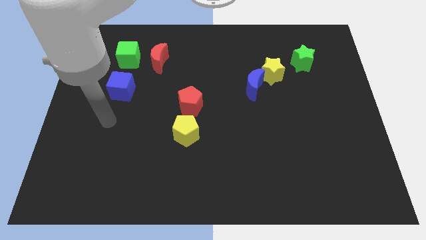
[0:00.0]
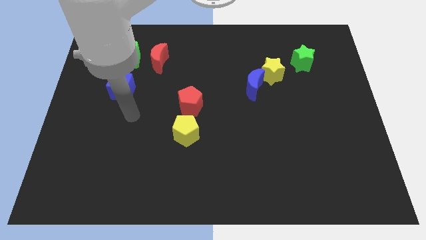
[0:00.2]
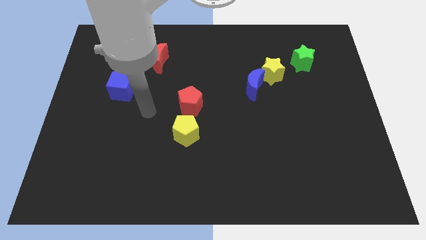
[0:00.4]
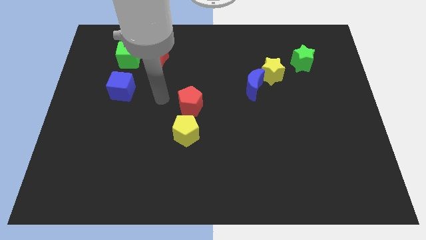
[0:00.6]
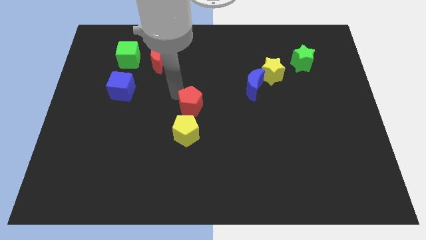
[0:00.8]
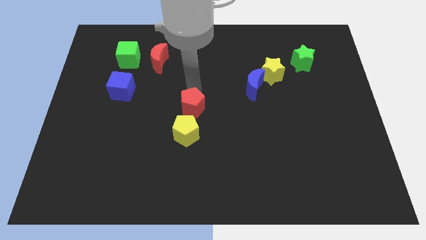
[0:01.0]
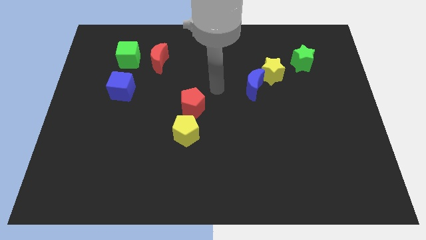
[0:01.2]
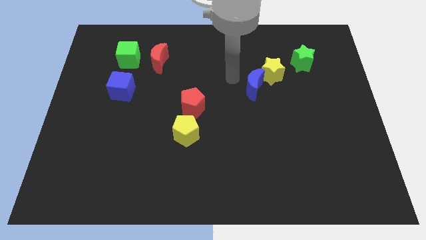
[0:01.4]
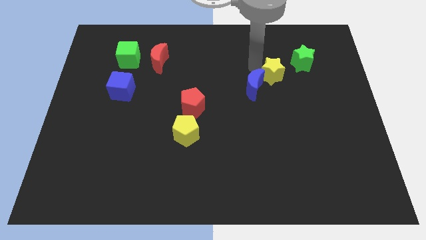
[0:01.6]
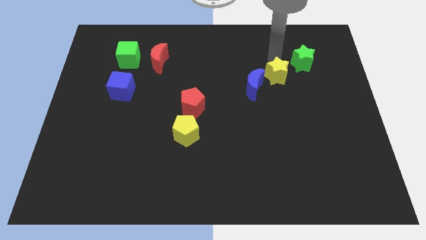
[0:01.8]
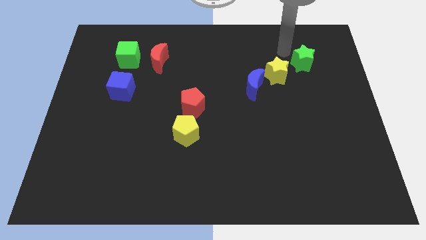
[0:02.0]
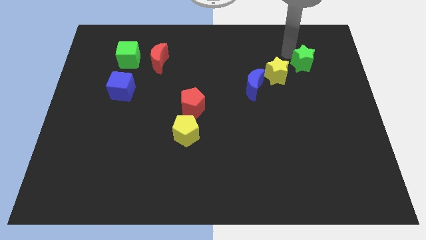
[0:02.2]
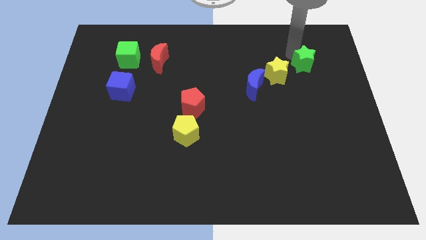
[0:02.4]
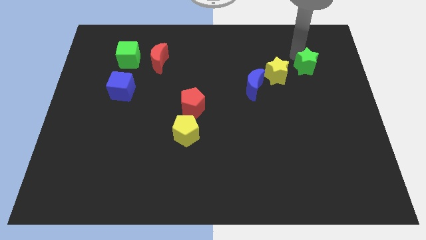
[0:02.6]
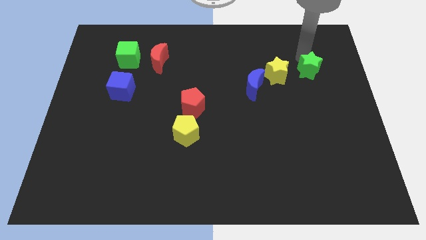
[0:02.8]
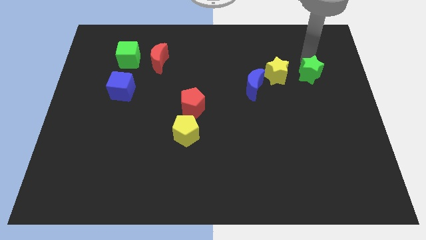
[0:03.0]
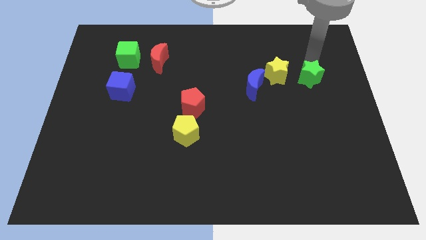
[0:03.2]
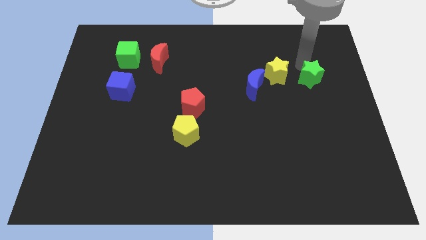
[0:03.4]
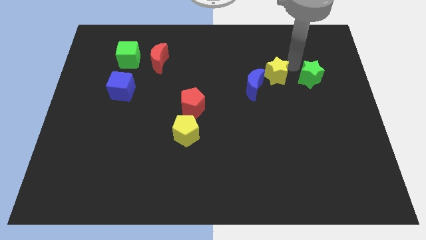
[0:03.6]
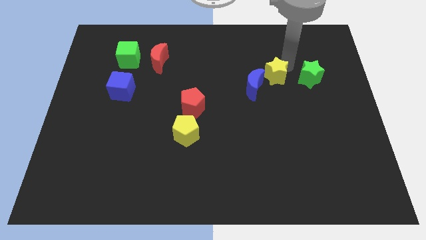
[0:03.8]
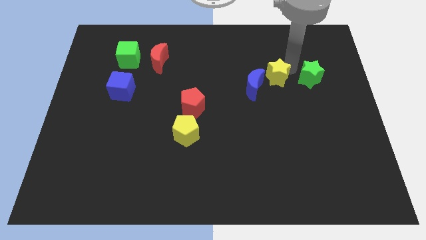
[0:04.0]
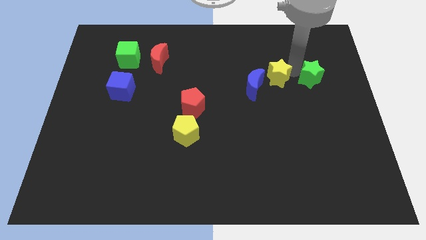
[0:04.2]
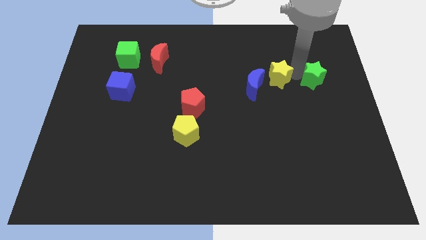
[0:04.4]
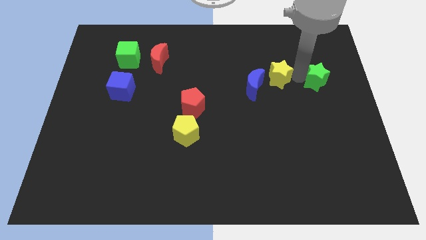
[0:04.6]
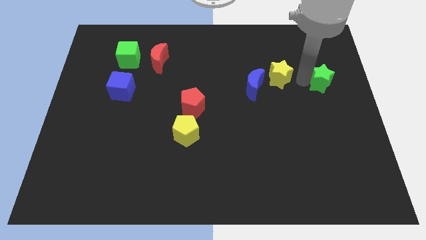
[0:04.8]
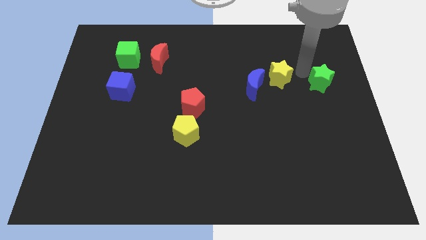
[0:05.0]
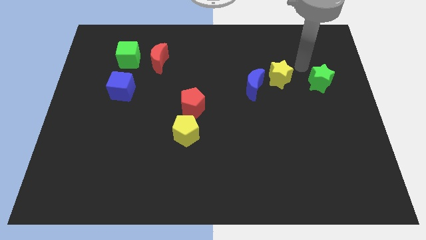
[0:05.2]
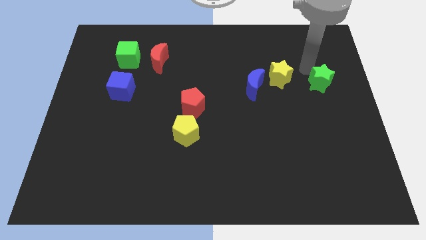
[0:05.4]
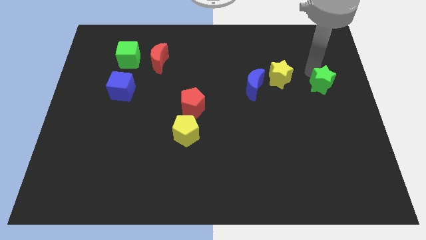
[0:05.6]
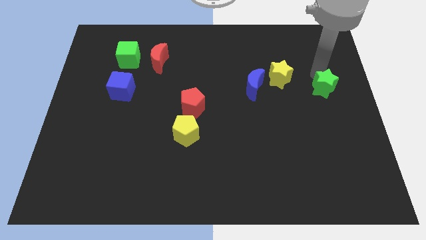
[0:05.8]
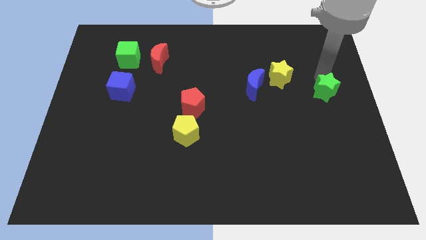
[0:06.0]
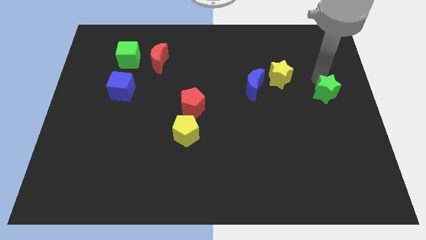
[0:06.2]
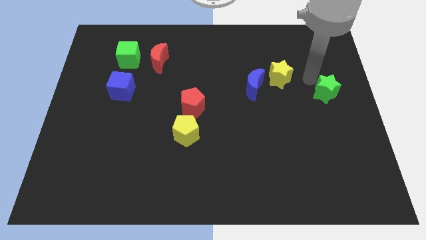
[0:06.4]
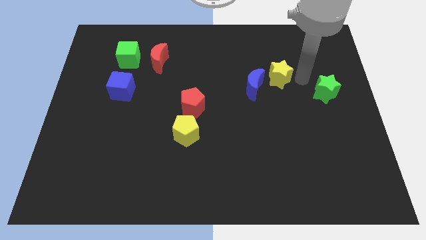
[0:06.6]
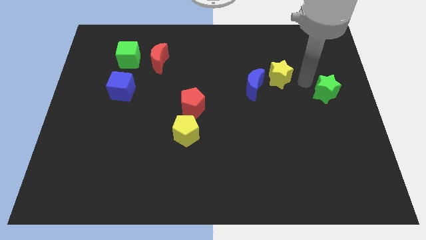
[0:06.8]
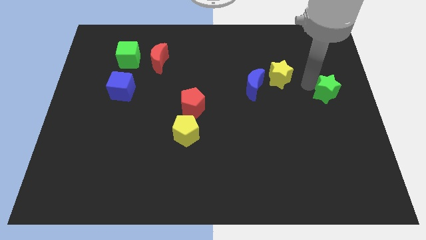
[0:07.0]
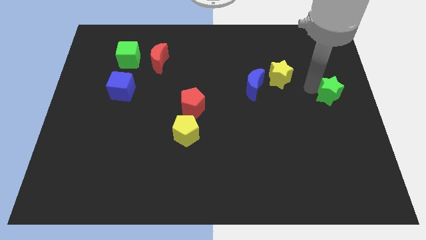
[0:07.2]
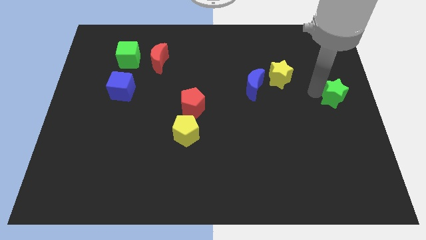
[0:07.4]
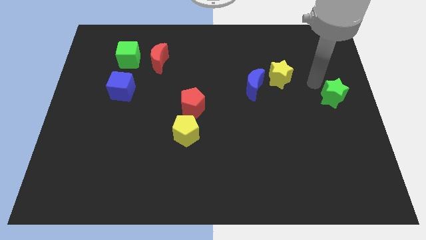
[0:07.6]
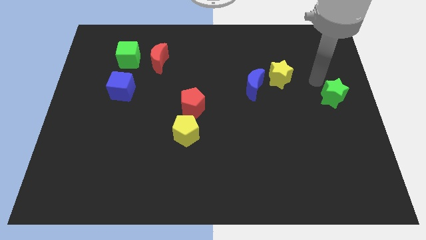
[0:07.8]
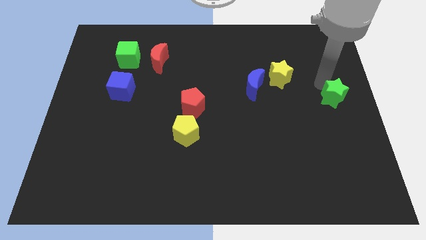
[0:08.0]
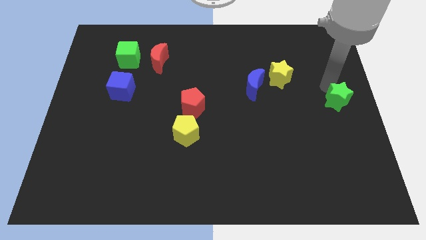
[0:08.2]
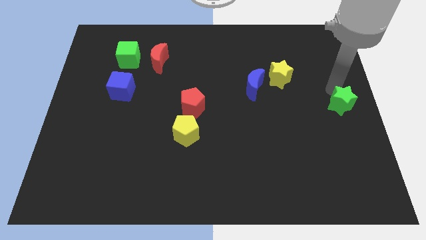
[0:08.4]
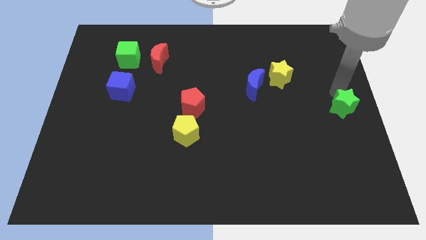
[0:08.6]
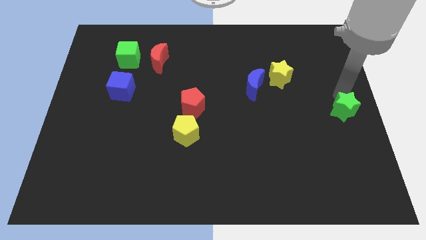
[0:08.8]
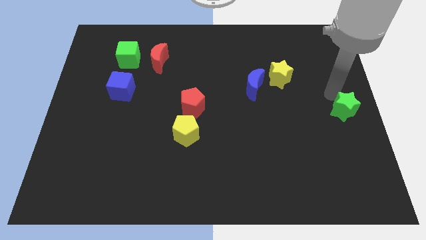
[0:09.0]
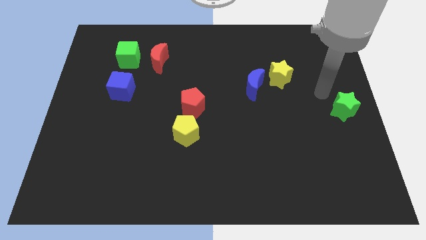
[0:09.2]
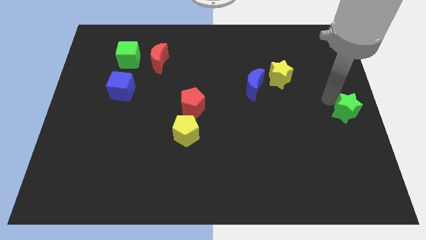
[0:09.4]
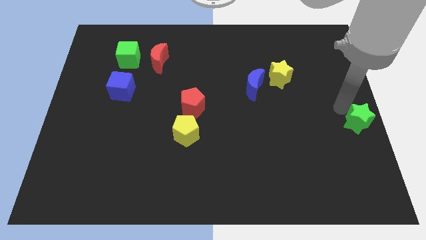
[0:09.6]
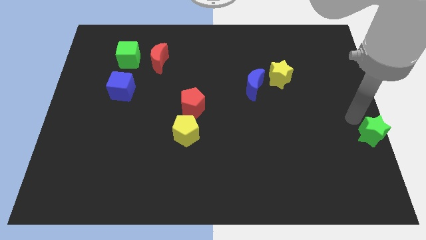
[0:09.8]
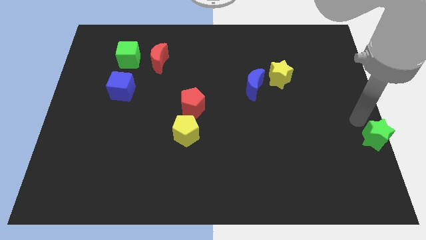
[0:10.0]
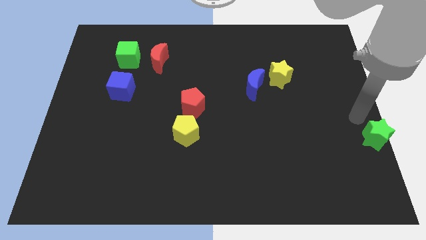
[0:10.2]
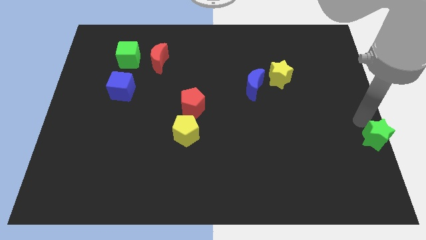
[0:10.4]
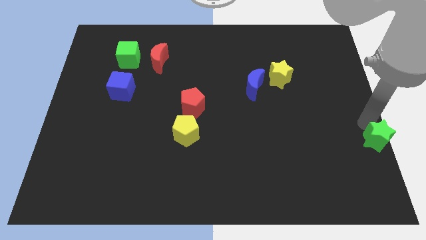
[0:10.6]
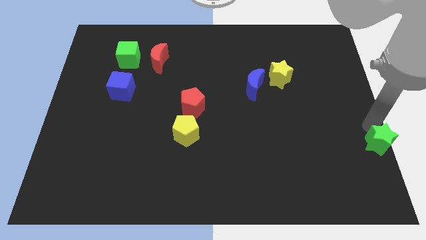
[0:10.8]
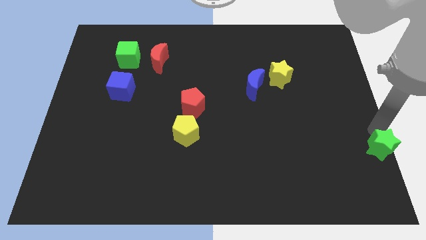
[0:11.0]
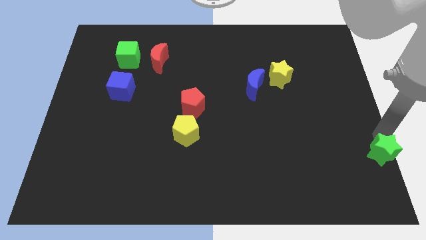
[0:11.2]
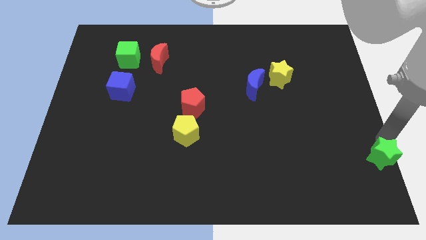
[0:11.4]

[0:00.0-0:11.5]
push the green star to the bottom right of the board

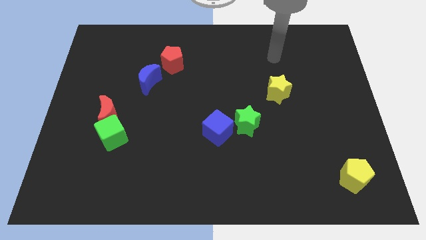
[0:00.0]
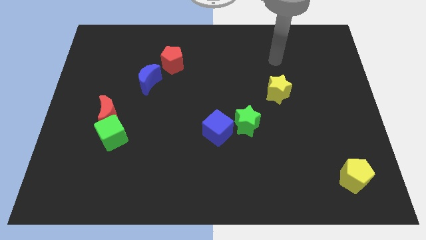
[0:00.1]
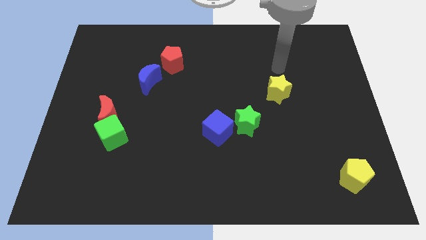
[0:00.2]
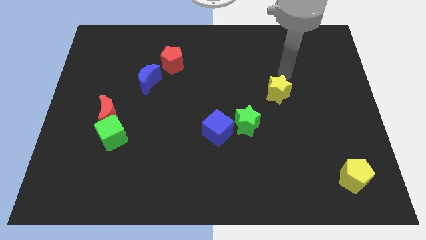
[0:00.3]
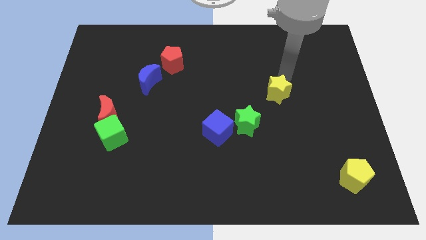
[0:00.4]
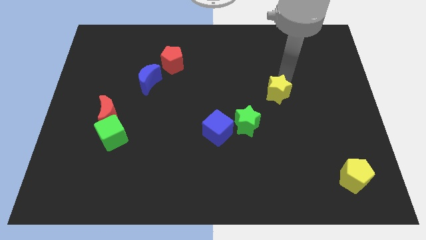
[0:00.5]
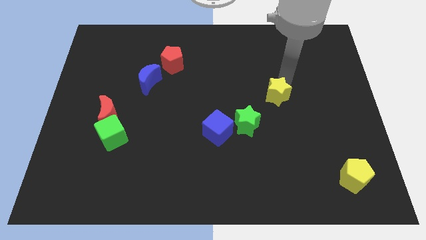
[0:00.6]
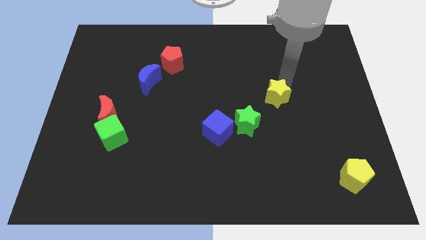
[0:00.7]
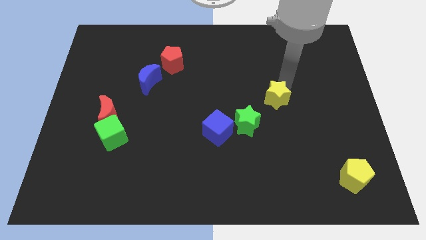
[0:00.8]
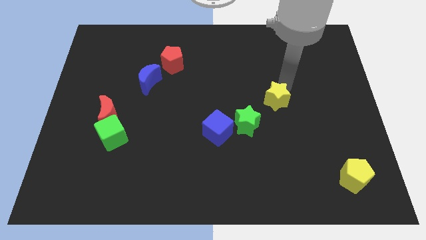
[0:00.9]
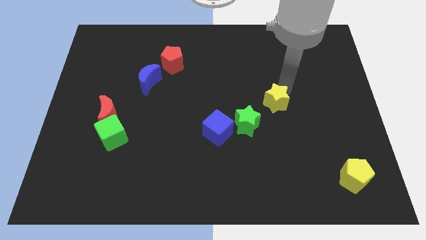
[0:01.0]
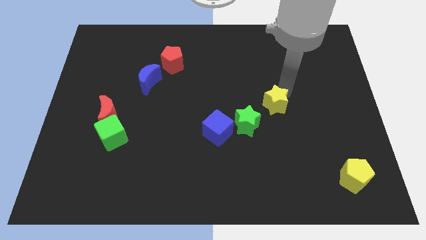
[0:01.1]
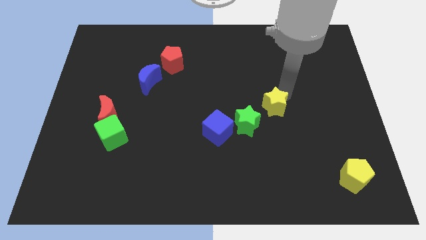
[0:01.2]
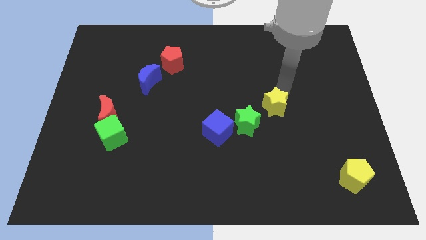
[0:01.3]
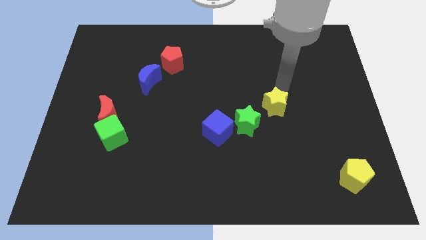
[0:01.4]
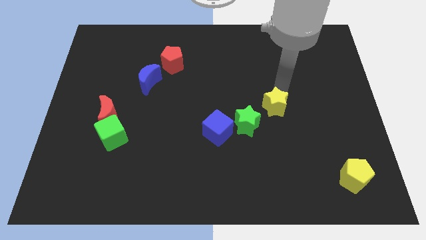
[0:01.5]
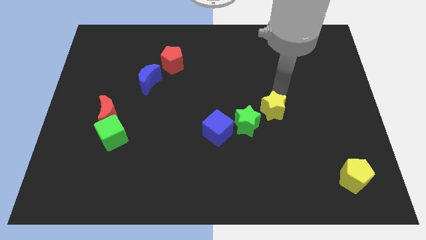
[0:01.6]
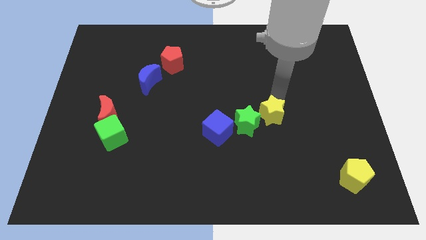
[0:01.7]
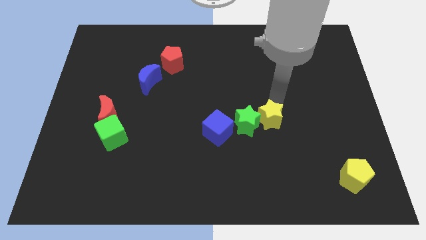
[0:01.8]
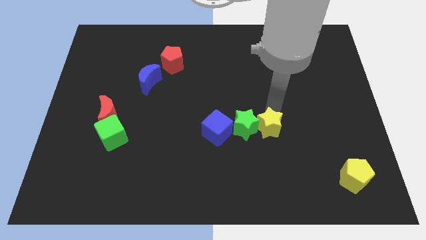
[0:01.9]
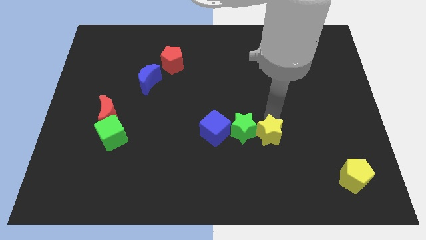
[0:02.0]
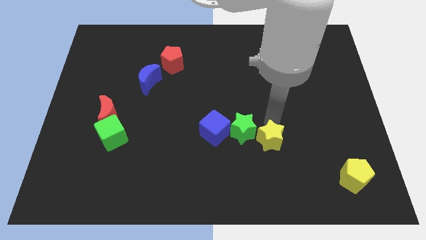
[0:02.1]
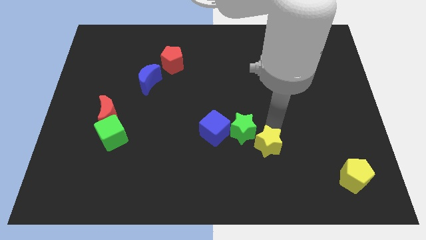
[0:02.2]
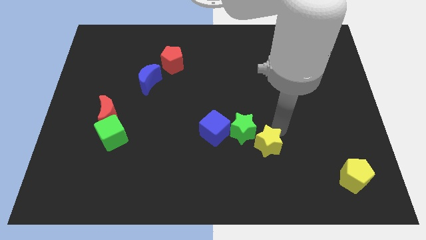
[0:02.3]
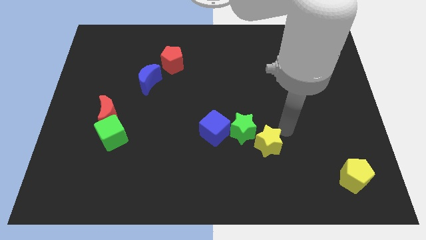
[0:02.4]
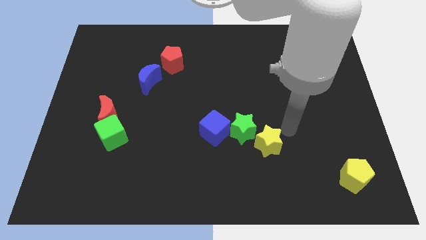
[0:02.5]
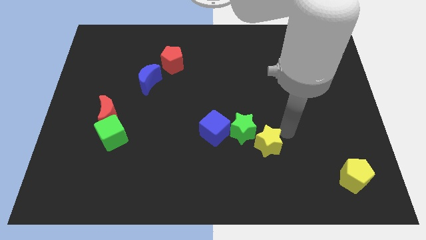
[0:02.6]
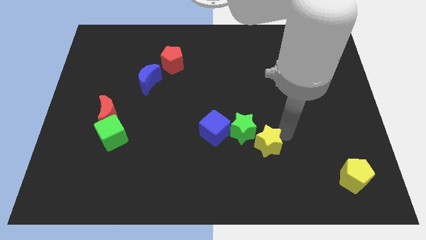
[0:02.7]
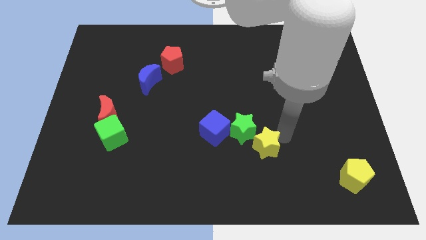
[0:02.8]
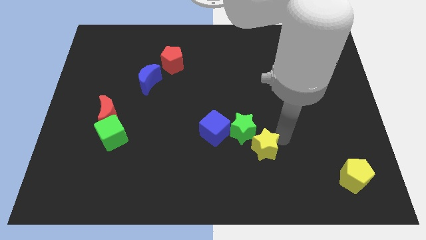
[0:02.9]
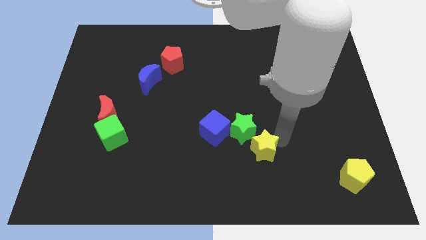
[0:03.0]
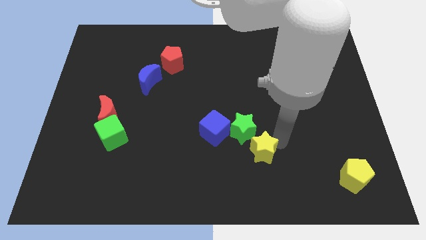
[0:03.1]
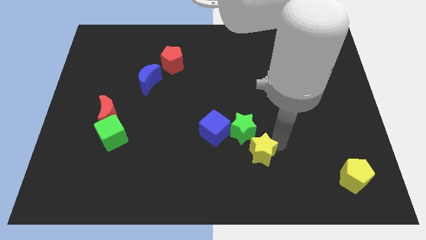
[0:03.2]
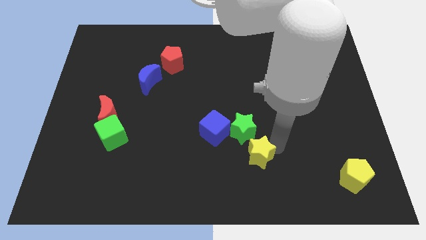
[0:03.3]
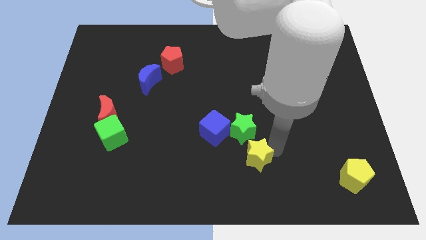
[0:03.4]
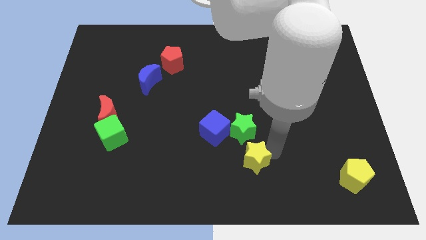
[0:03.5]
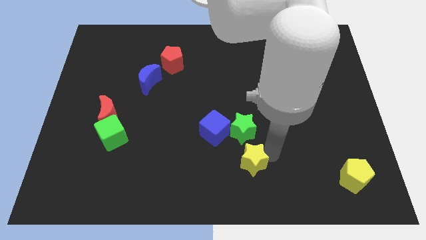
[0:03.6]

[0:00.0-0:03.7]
put the yellow star to the bottom side
